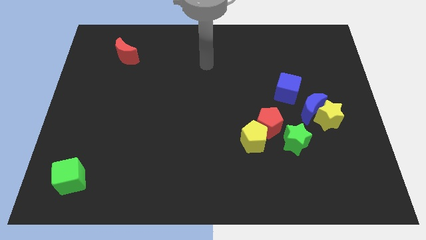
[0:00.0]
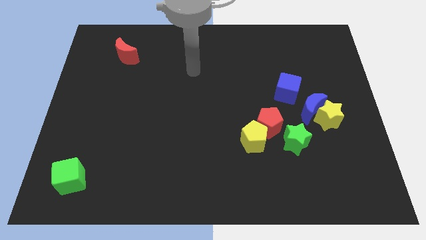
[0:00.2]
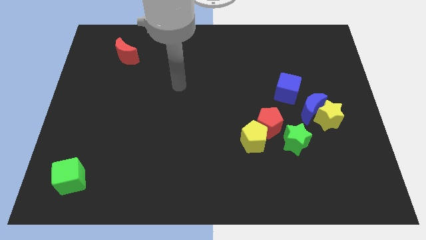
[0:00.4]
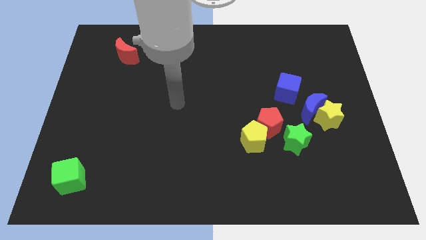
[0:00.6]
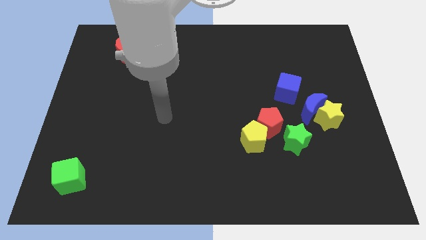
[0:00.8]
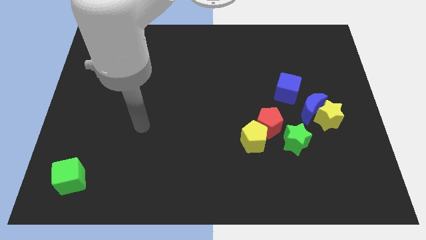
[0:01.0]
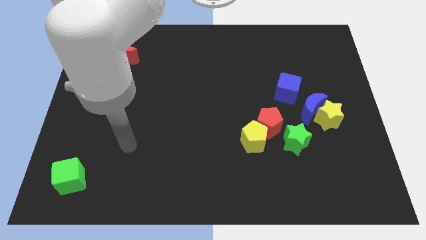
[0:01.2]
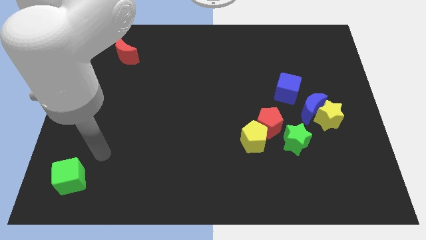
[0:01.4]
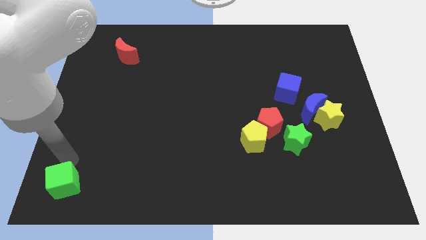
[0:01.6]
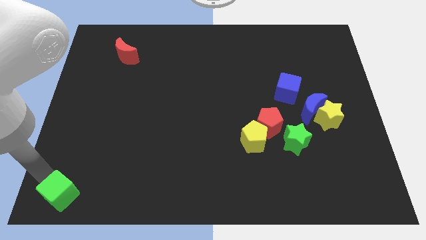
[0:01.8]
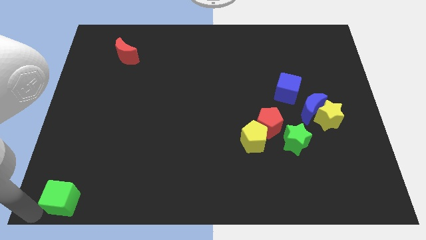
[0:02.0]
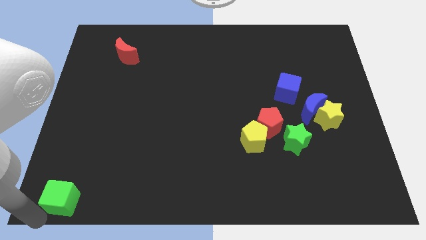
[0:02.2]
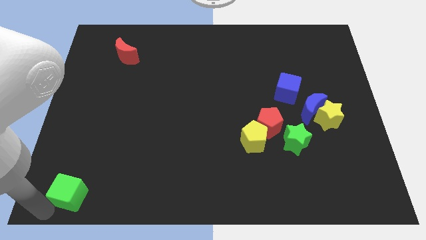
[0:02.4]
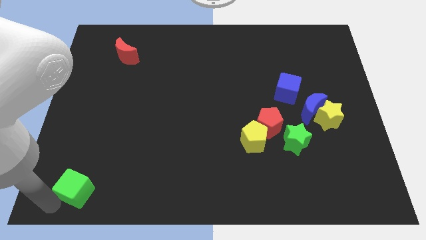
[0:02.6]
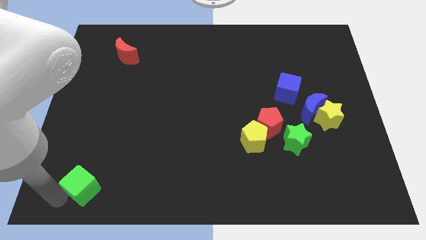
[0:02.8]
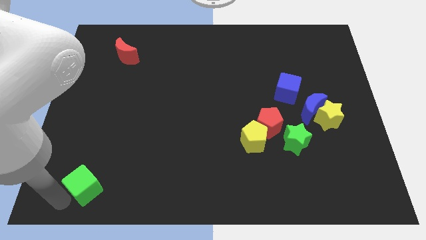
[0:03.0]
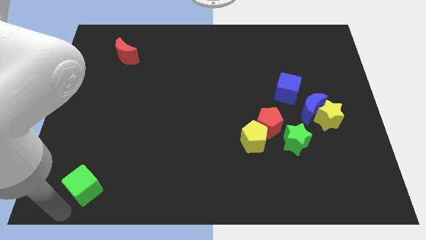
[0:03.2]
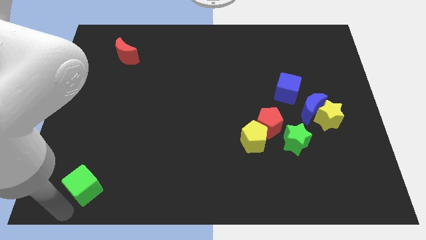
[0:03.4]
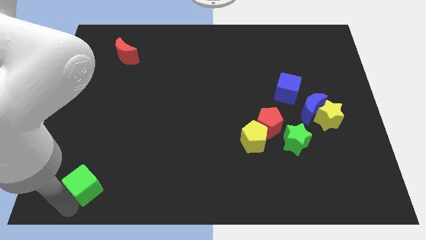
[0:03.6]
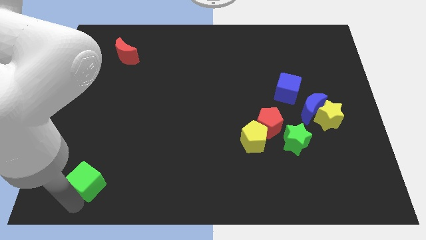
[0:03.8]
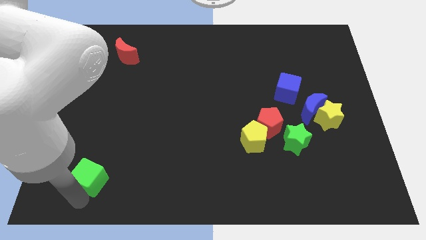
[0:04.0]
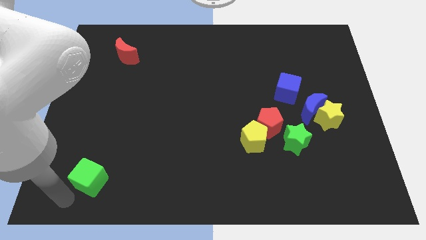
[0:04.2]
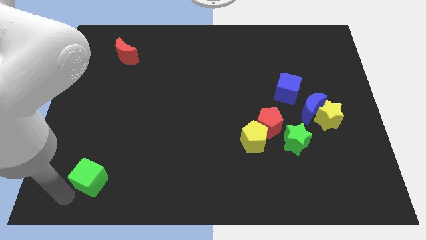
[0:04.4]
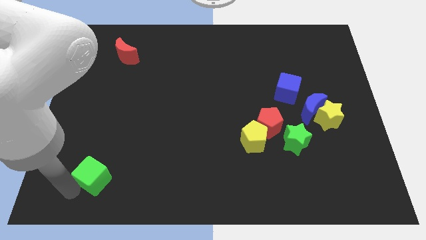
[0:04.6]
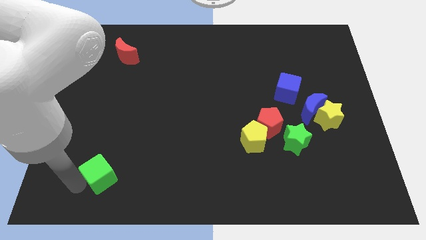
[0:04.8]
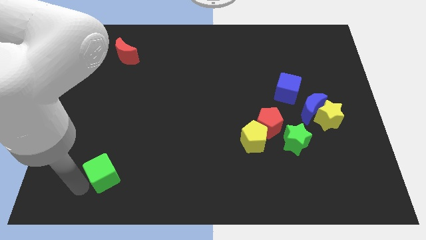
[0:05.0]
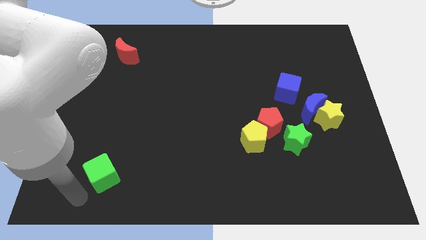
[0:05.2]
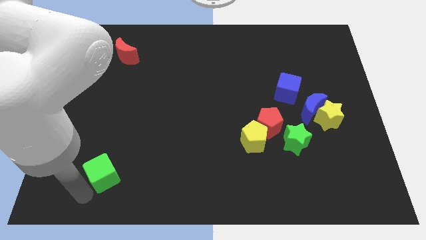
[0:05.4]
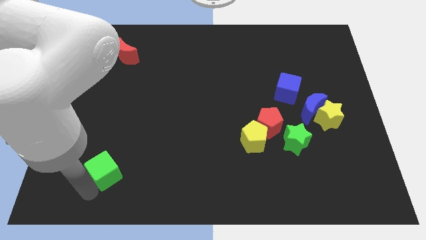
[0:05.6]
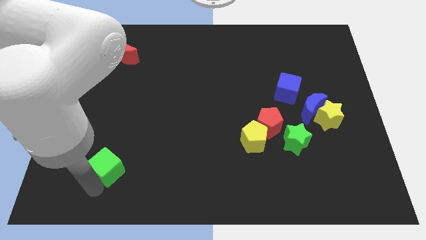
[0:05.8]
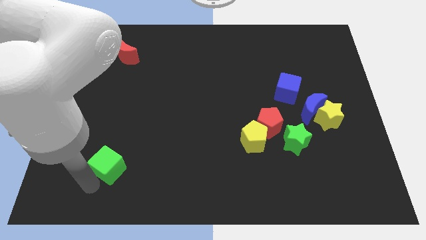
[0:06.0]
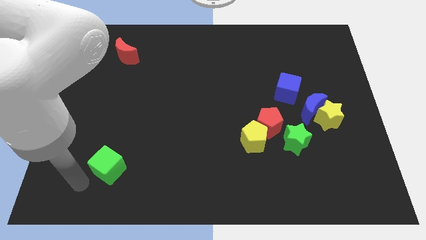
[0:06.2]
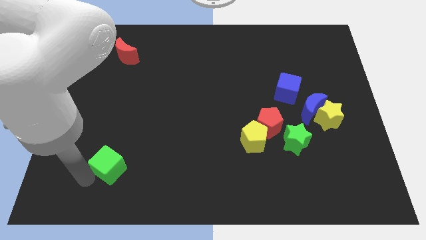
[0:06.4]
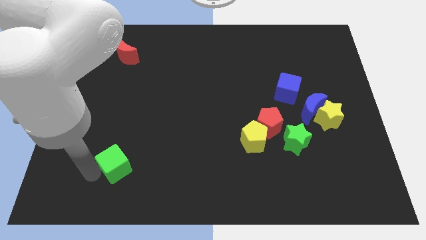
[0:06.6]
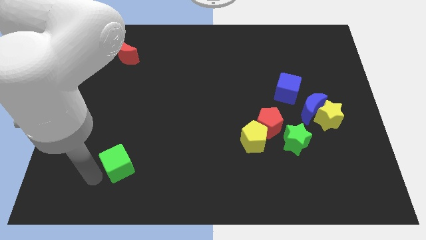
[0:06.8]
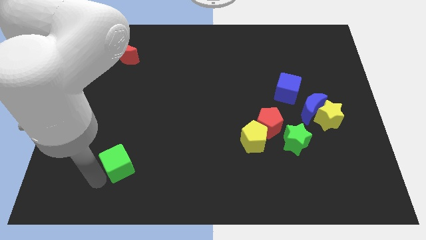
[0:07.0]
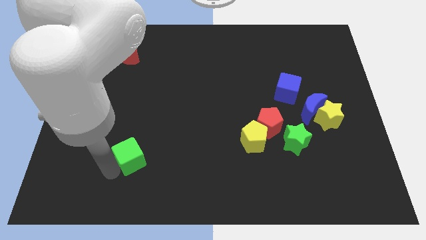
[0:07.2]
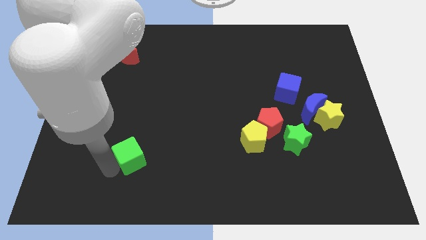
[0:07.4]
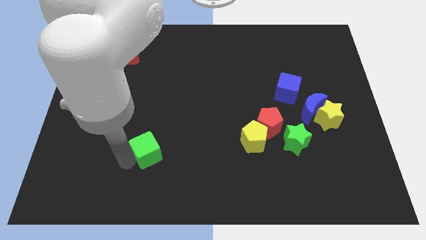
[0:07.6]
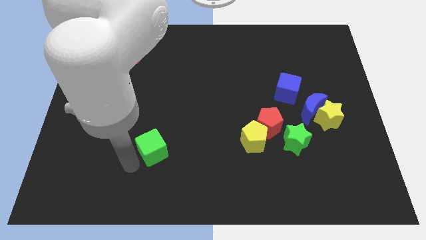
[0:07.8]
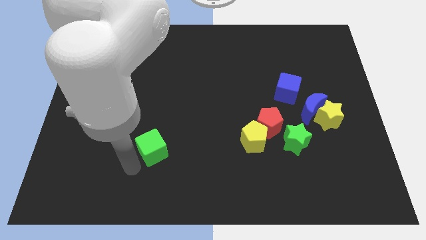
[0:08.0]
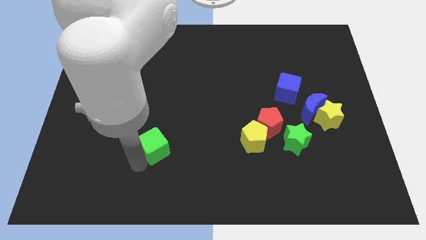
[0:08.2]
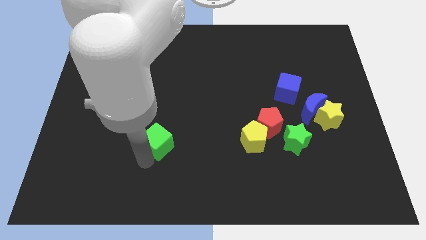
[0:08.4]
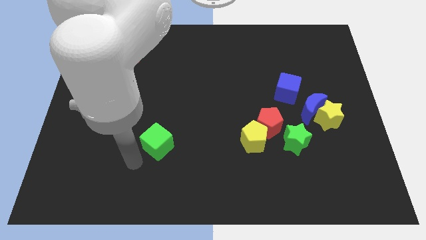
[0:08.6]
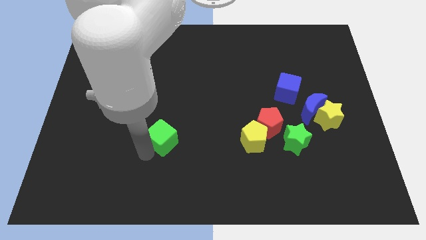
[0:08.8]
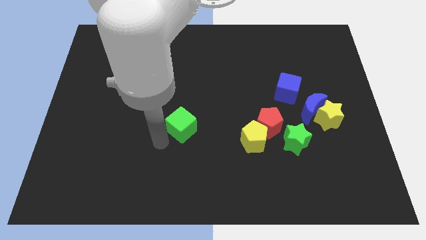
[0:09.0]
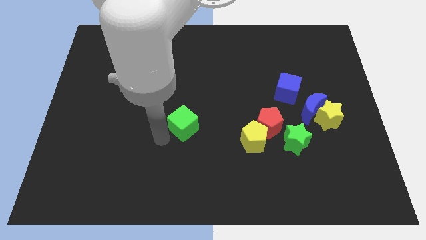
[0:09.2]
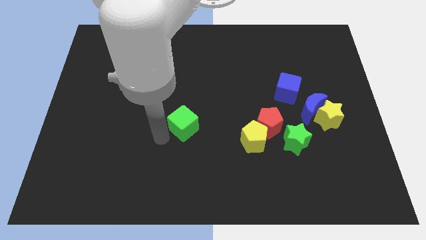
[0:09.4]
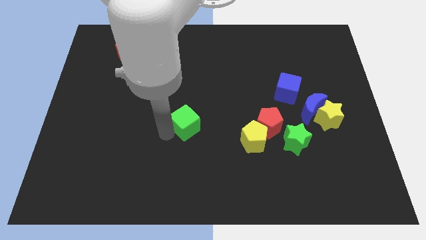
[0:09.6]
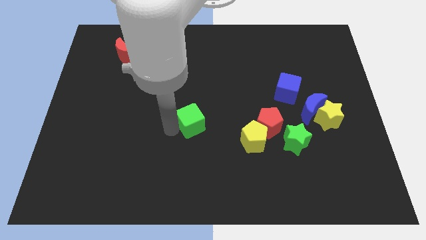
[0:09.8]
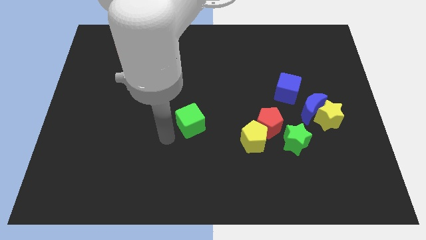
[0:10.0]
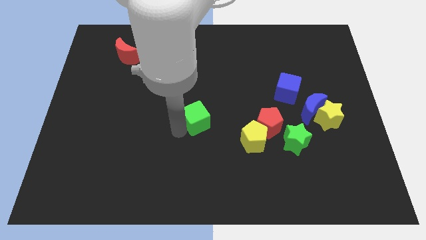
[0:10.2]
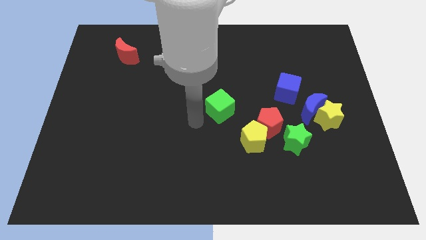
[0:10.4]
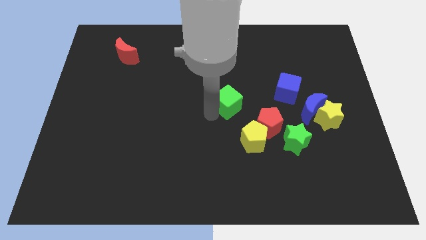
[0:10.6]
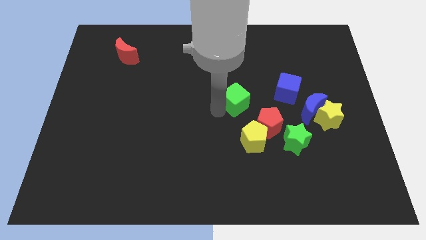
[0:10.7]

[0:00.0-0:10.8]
put the green cube to the left of the blue cube

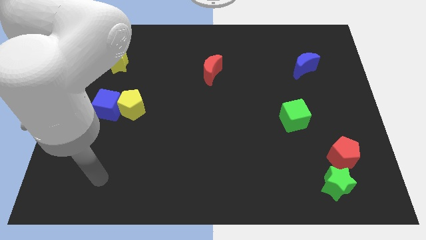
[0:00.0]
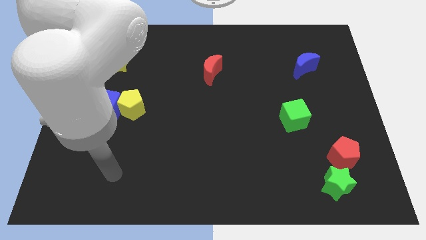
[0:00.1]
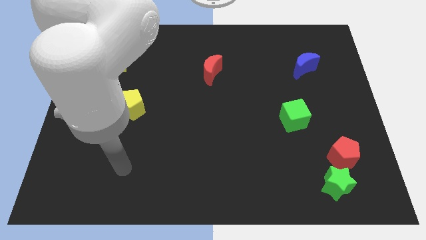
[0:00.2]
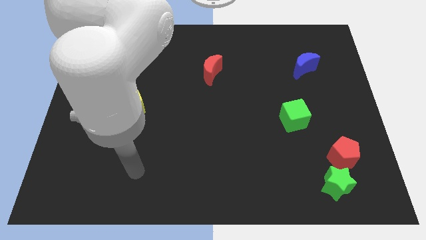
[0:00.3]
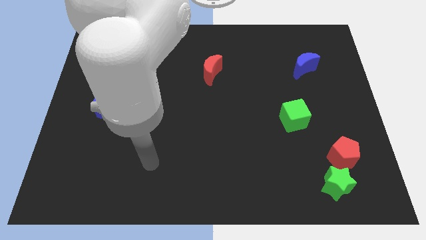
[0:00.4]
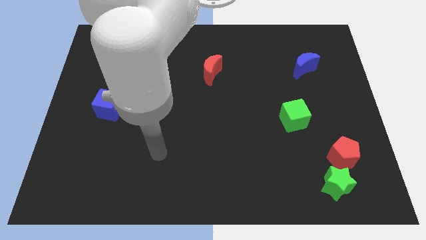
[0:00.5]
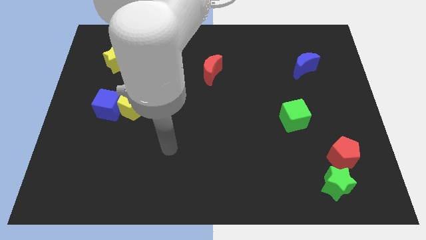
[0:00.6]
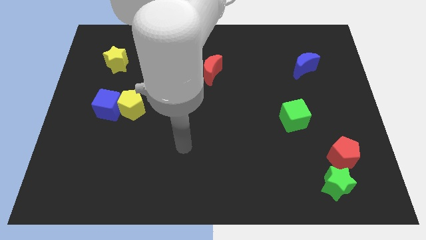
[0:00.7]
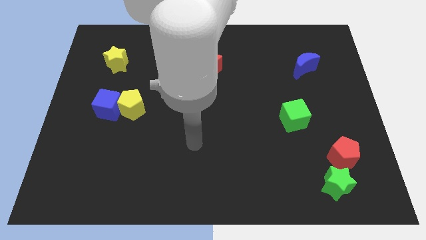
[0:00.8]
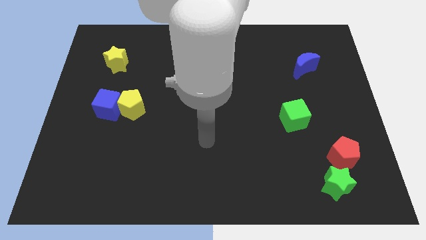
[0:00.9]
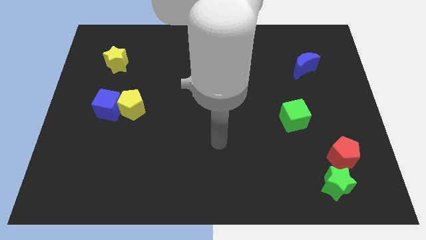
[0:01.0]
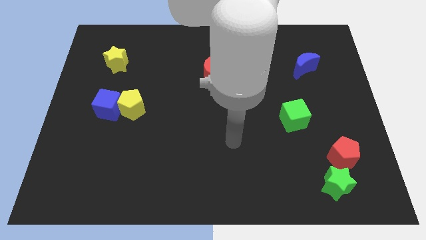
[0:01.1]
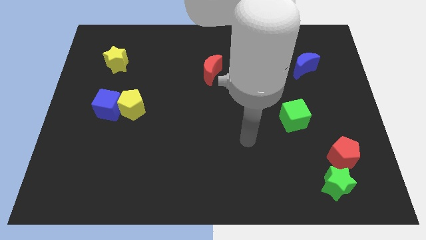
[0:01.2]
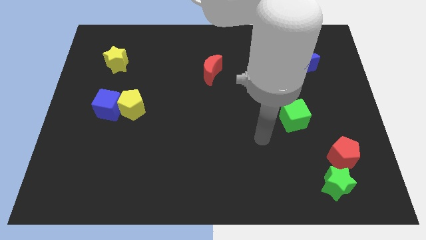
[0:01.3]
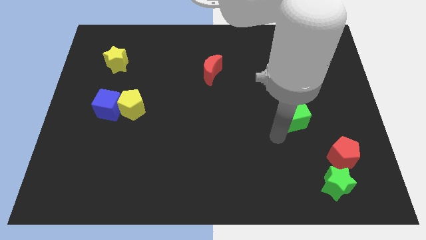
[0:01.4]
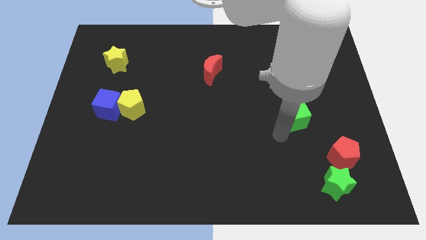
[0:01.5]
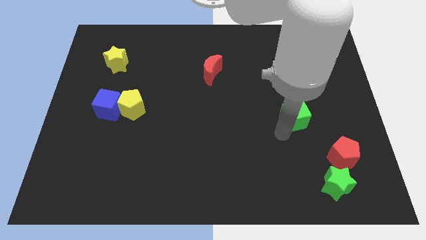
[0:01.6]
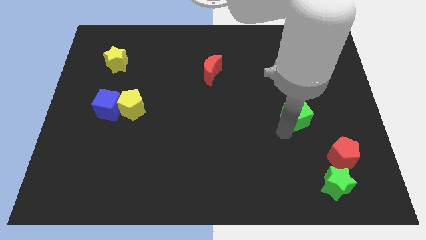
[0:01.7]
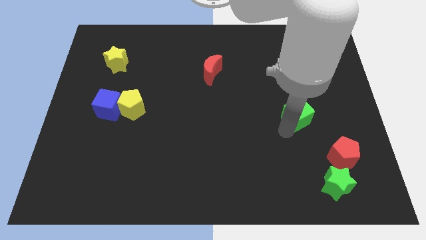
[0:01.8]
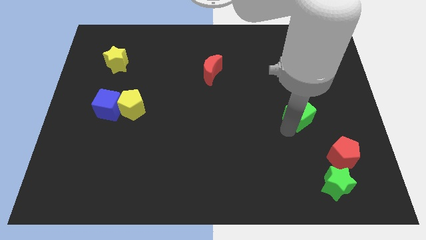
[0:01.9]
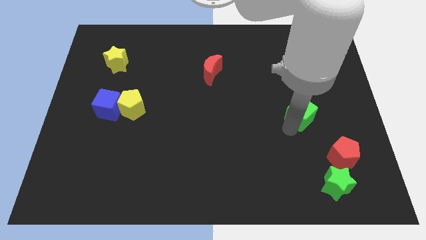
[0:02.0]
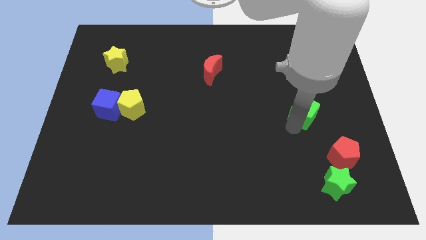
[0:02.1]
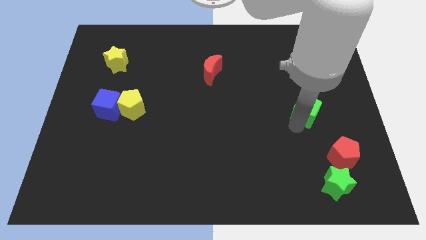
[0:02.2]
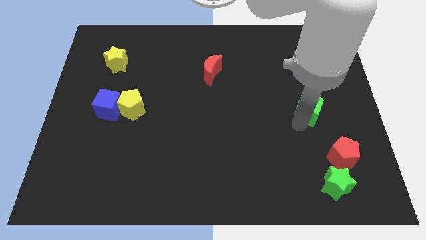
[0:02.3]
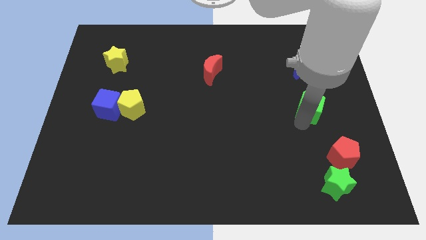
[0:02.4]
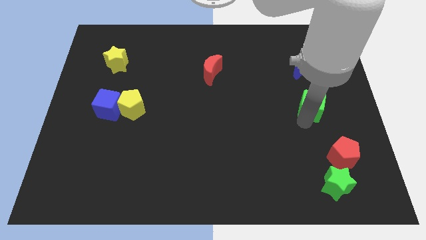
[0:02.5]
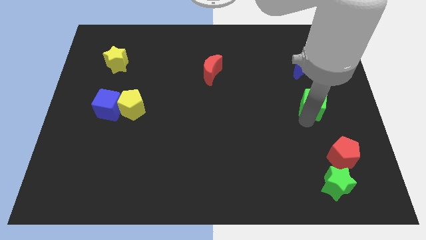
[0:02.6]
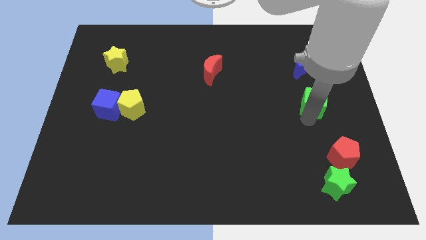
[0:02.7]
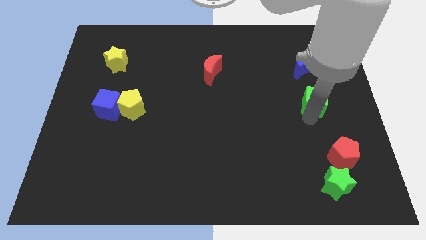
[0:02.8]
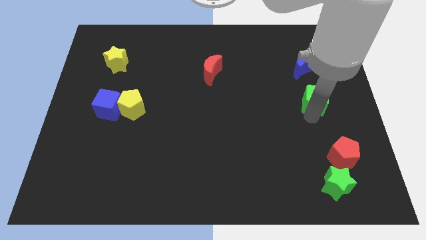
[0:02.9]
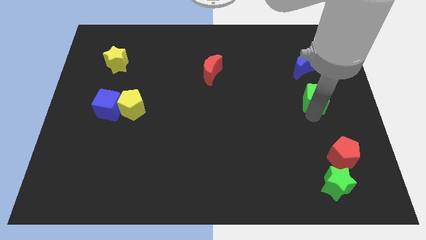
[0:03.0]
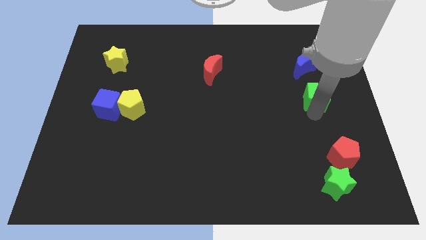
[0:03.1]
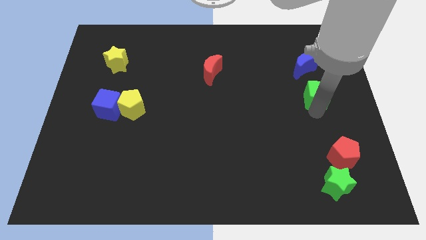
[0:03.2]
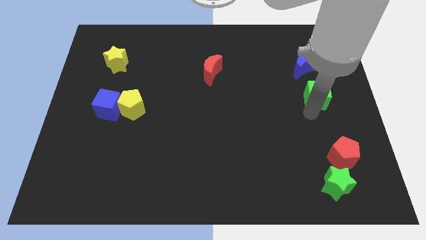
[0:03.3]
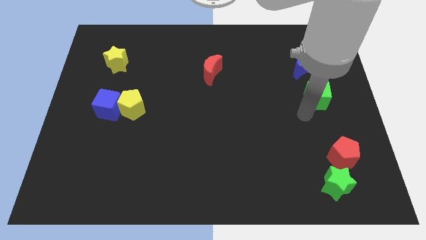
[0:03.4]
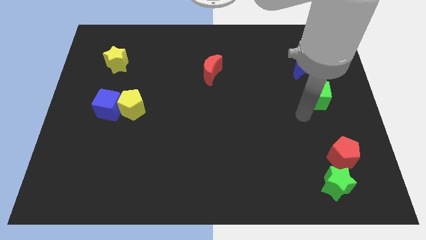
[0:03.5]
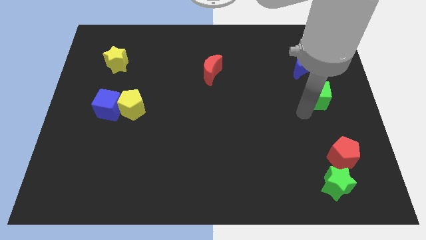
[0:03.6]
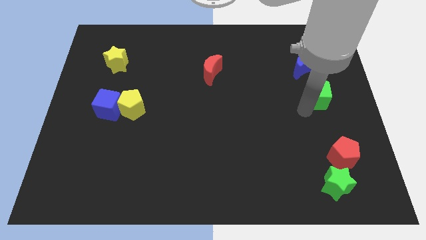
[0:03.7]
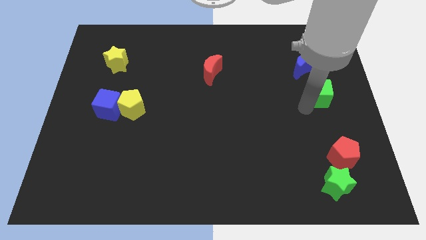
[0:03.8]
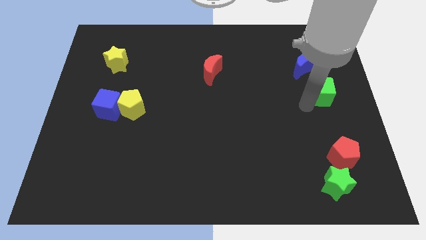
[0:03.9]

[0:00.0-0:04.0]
move the green cube to the bottom right side of the blue moon
